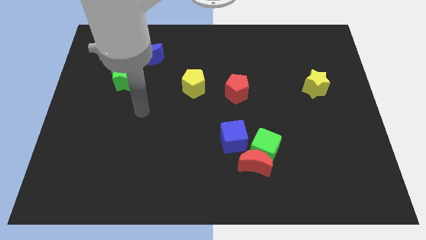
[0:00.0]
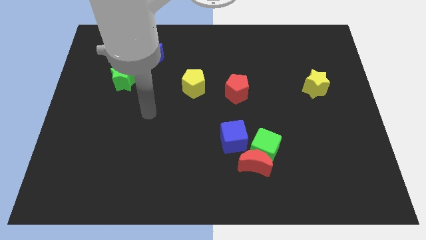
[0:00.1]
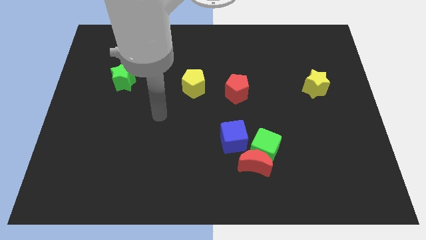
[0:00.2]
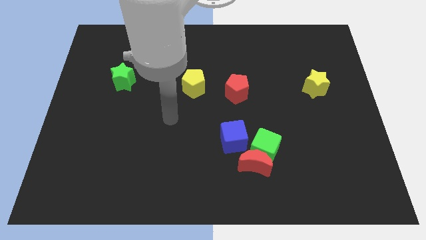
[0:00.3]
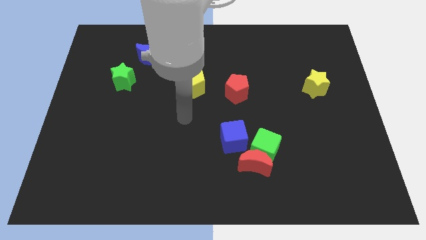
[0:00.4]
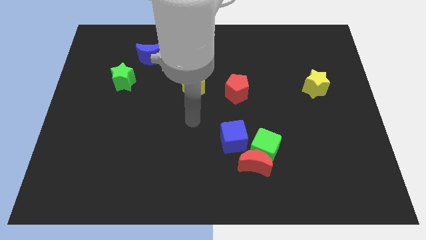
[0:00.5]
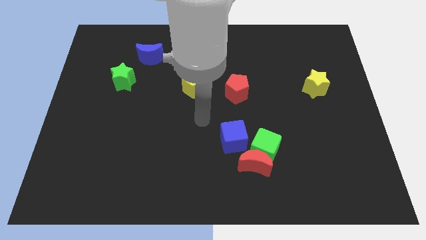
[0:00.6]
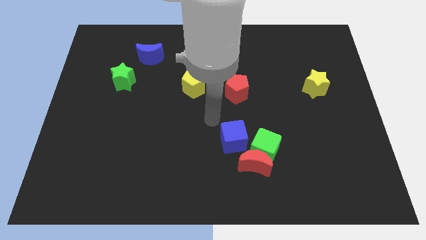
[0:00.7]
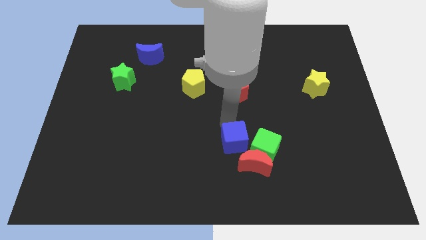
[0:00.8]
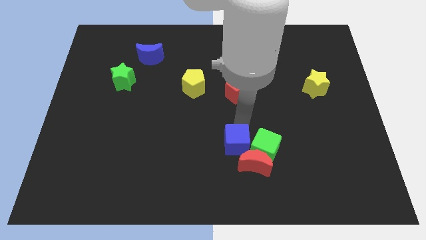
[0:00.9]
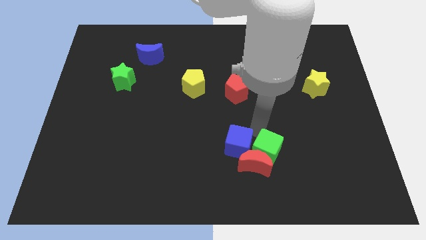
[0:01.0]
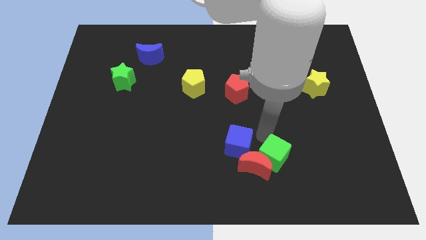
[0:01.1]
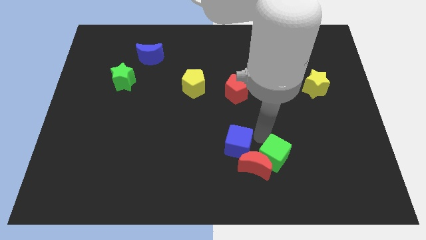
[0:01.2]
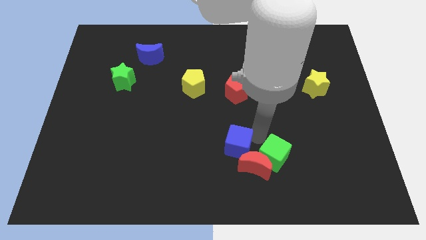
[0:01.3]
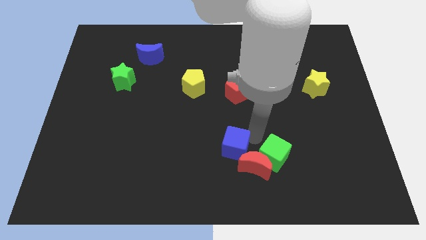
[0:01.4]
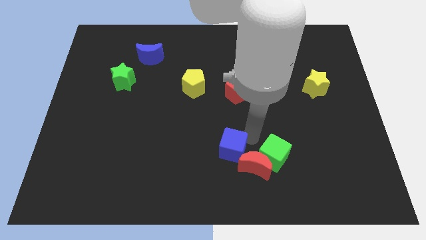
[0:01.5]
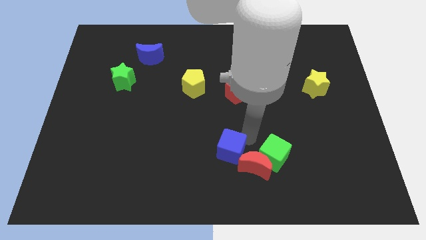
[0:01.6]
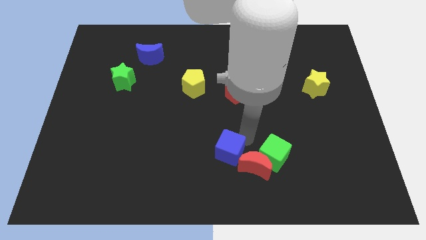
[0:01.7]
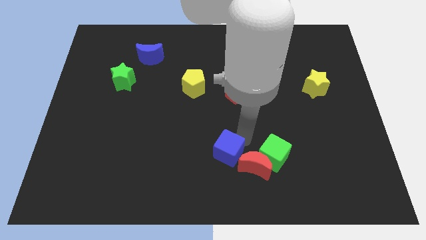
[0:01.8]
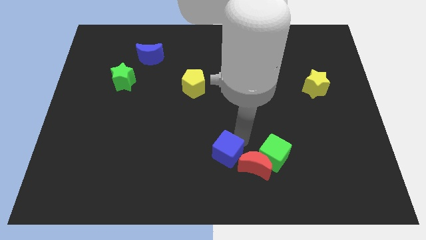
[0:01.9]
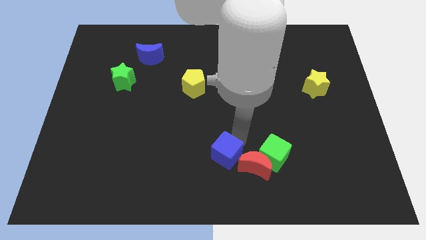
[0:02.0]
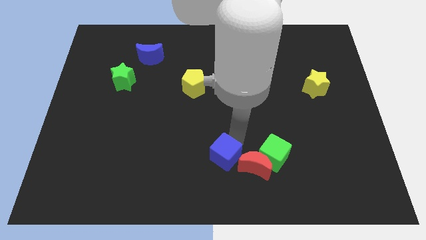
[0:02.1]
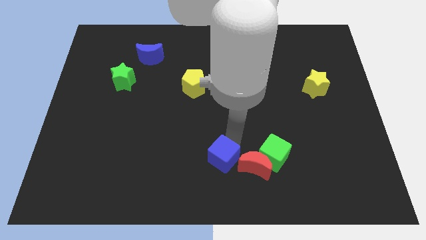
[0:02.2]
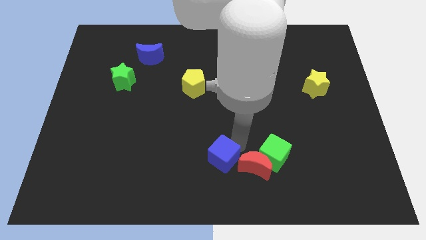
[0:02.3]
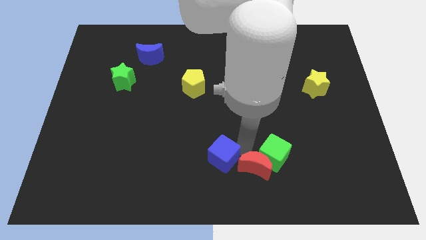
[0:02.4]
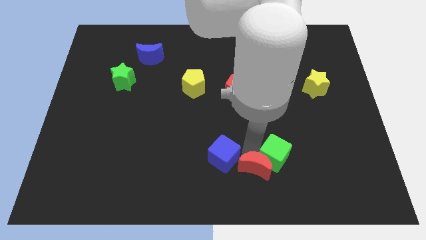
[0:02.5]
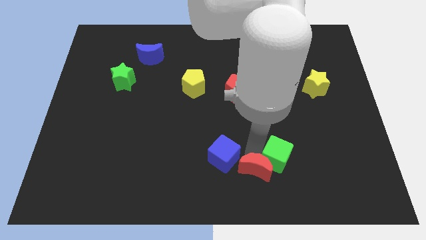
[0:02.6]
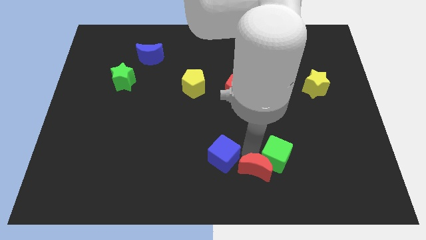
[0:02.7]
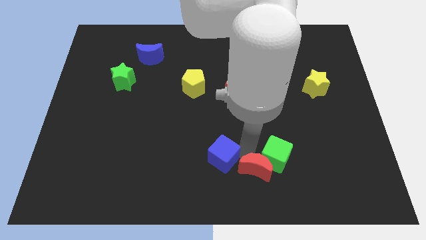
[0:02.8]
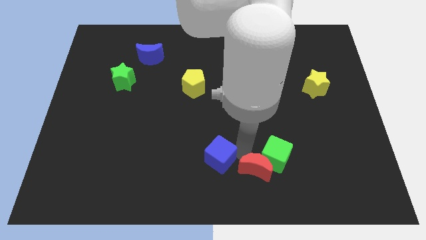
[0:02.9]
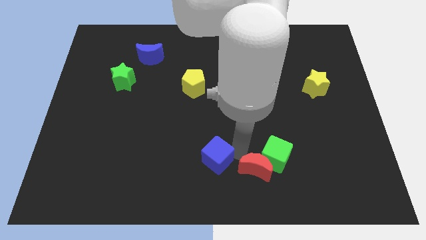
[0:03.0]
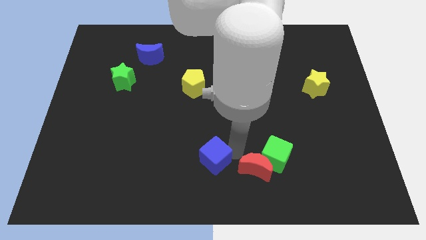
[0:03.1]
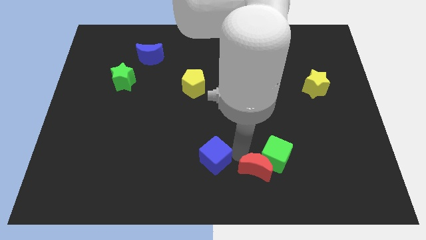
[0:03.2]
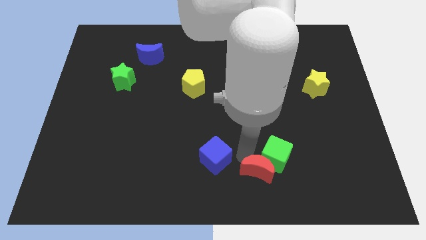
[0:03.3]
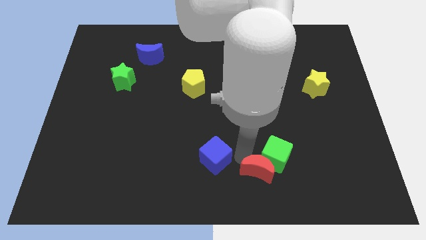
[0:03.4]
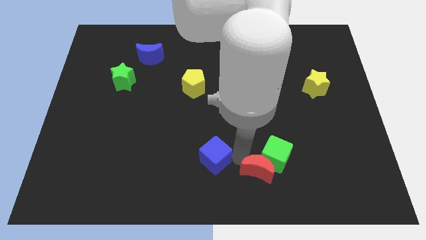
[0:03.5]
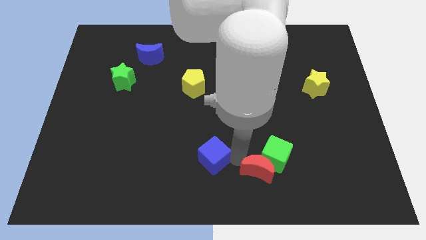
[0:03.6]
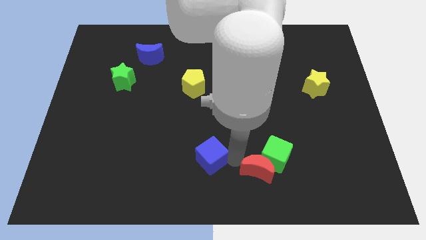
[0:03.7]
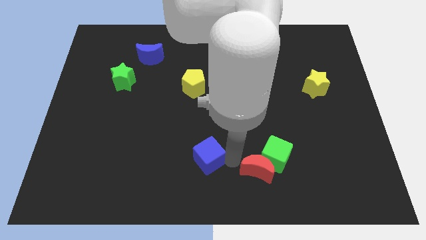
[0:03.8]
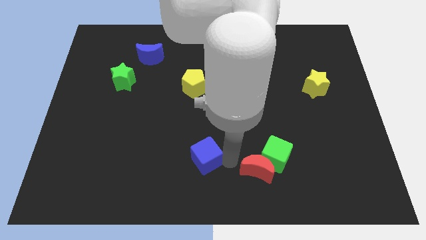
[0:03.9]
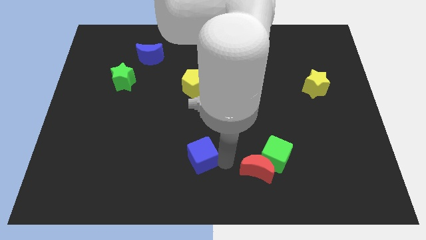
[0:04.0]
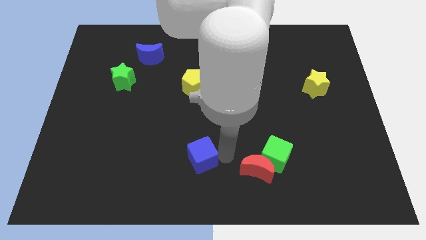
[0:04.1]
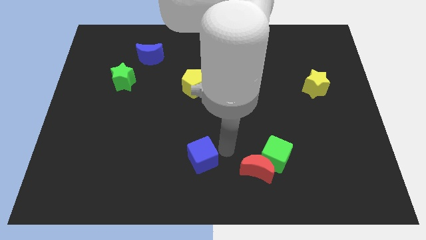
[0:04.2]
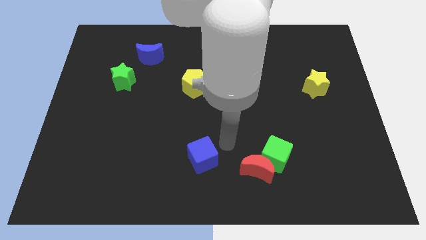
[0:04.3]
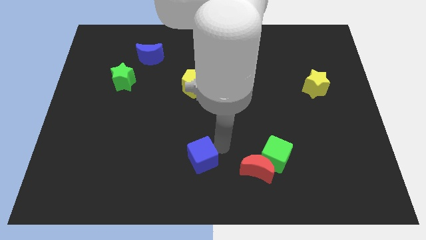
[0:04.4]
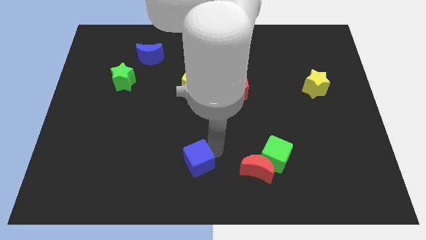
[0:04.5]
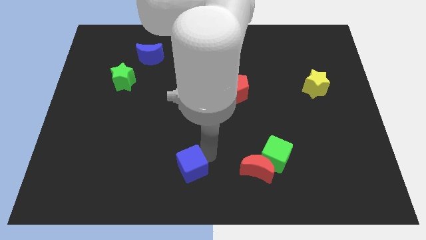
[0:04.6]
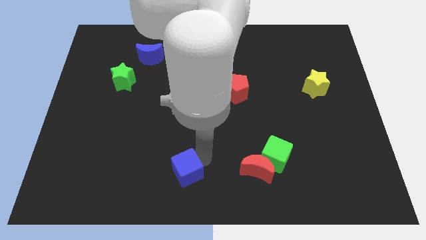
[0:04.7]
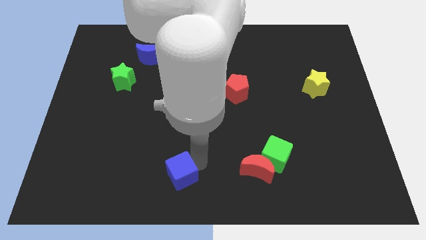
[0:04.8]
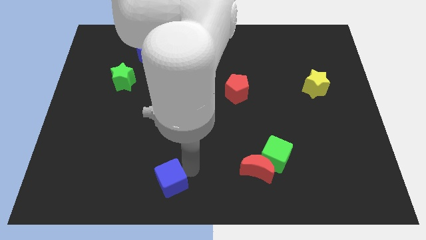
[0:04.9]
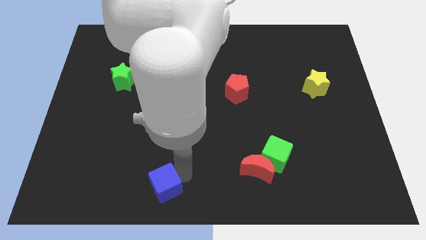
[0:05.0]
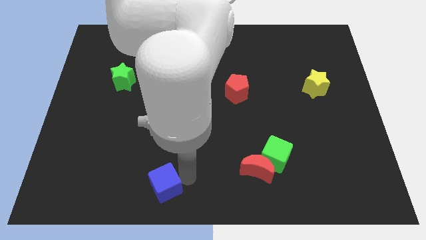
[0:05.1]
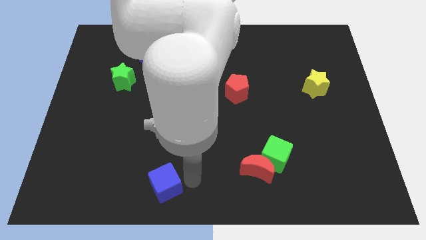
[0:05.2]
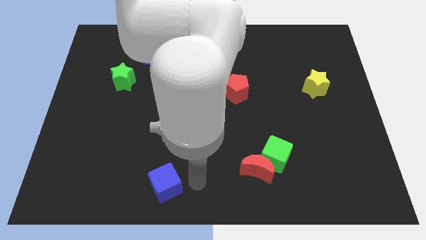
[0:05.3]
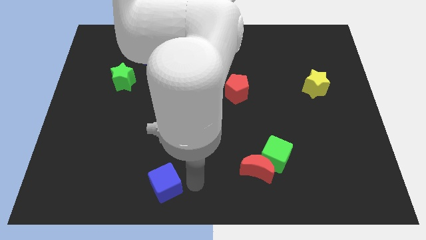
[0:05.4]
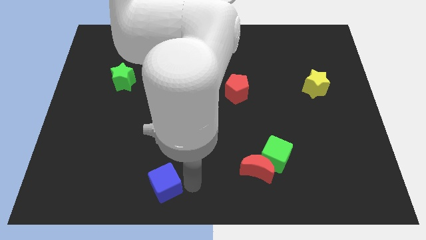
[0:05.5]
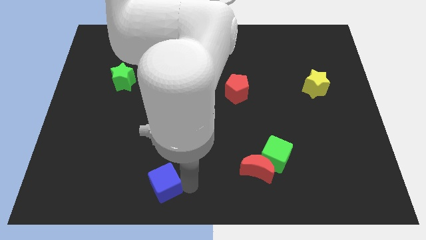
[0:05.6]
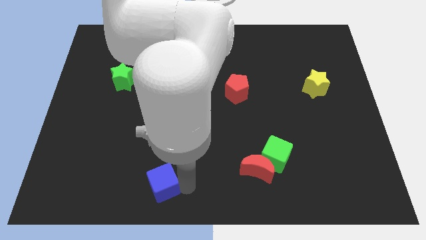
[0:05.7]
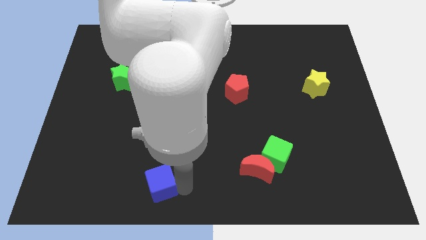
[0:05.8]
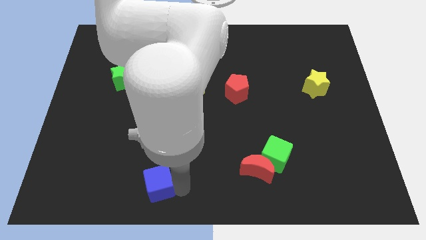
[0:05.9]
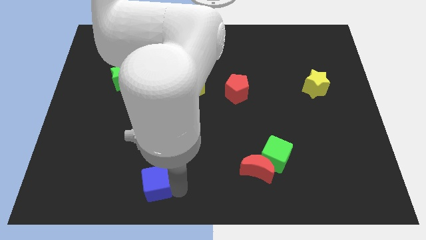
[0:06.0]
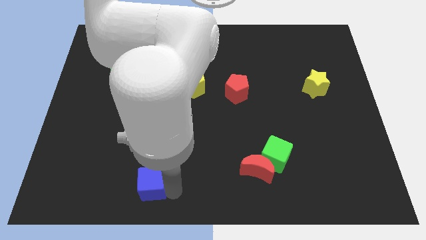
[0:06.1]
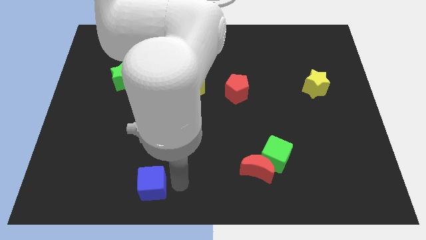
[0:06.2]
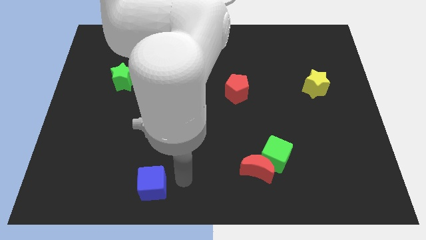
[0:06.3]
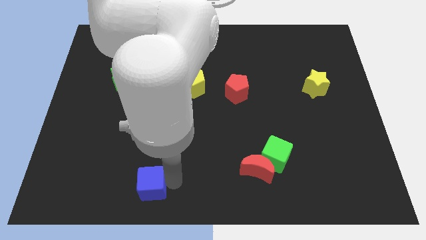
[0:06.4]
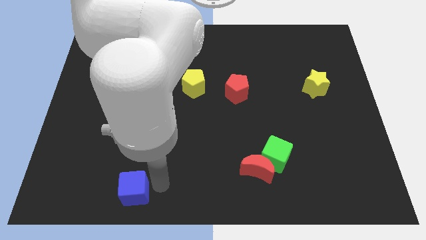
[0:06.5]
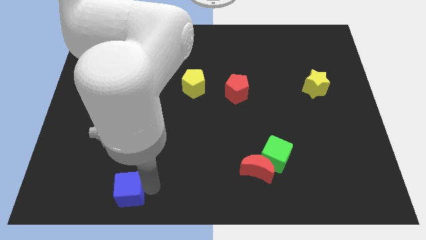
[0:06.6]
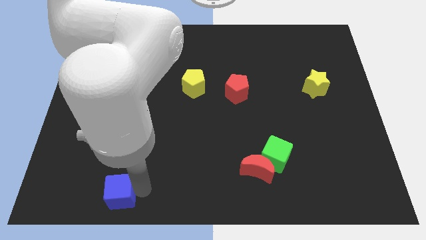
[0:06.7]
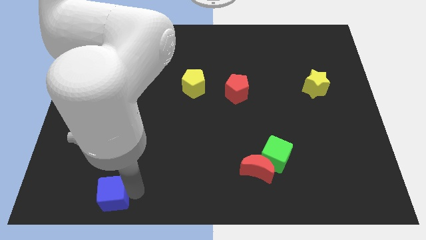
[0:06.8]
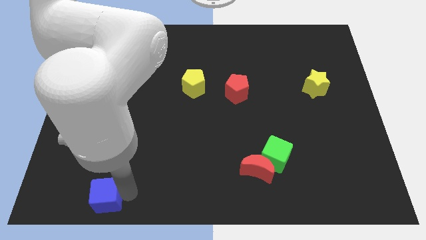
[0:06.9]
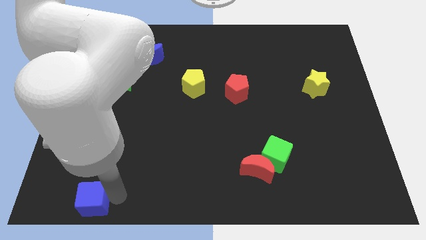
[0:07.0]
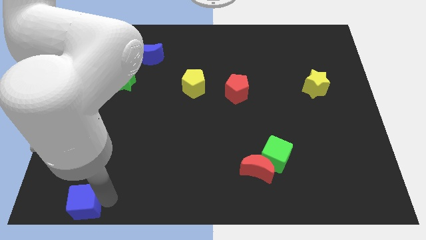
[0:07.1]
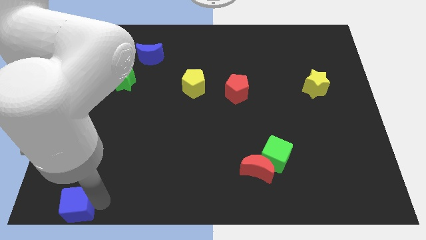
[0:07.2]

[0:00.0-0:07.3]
slide the blue cube to the bottom left
